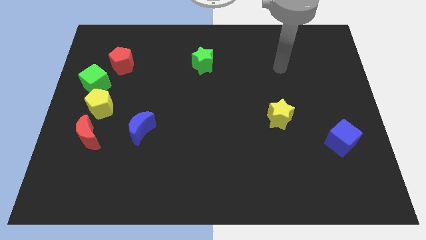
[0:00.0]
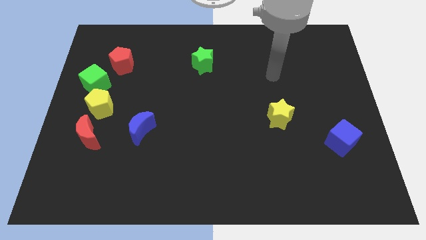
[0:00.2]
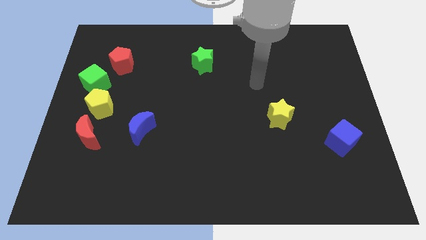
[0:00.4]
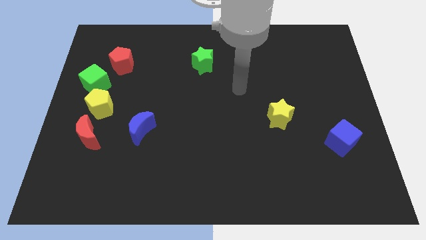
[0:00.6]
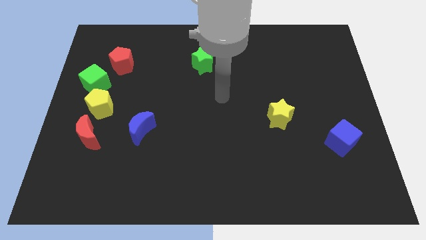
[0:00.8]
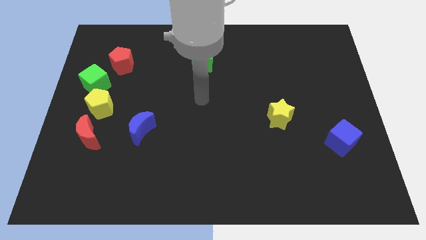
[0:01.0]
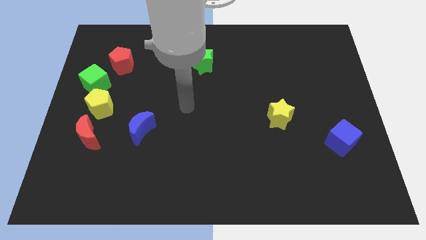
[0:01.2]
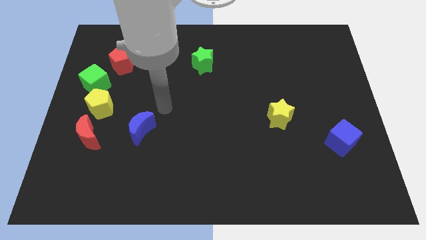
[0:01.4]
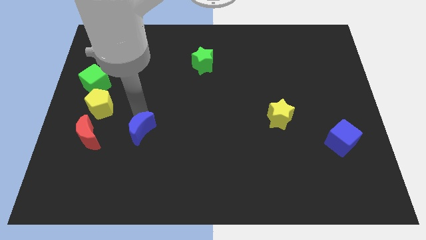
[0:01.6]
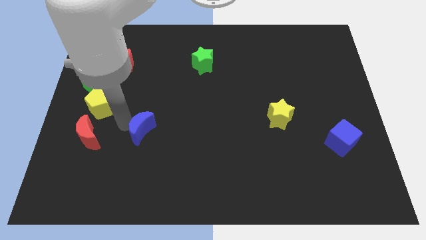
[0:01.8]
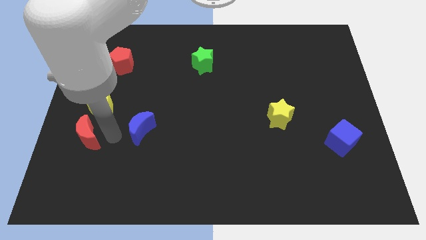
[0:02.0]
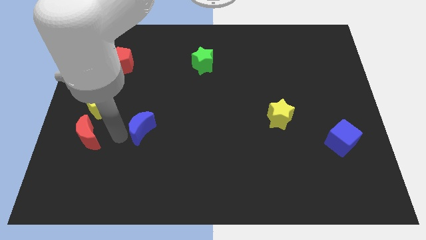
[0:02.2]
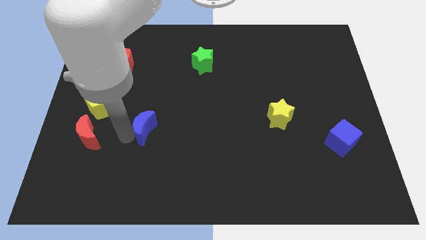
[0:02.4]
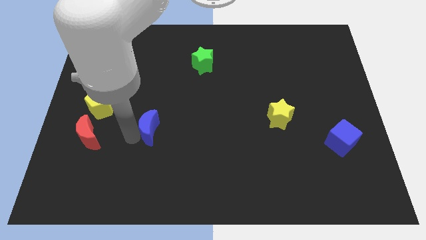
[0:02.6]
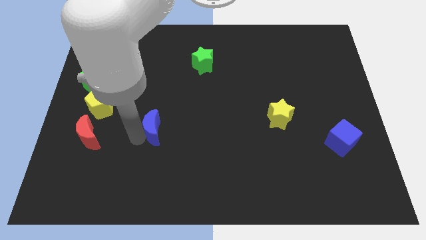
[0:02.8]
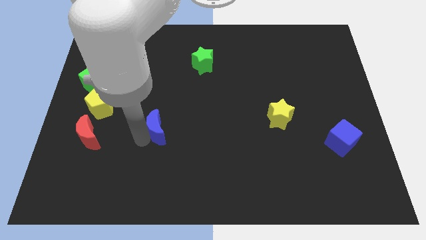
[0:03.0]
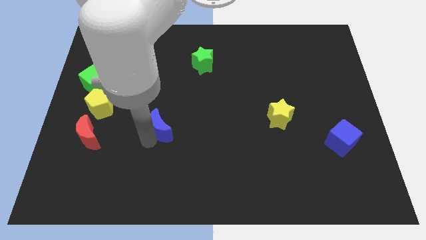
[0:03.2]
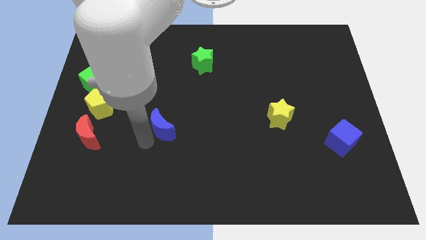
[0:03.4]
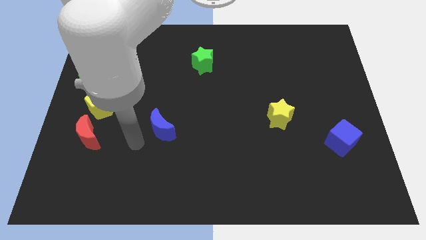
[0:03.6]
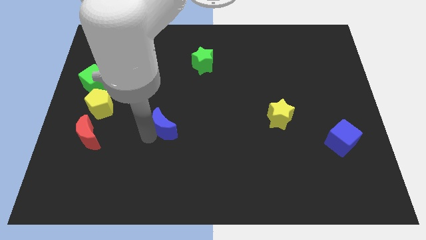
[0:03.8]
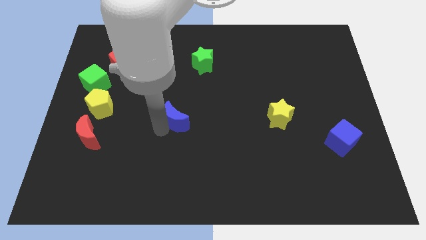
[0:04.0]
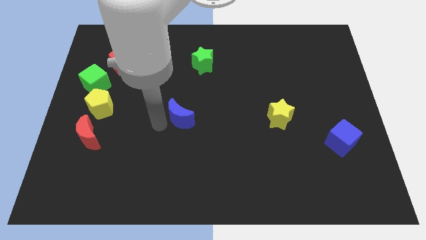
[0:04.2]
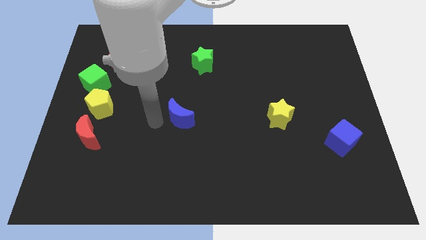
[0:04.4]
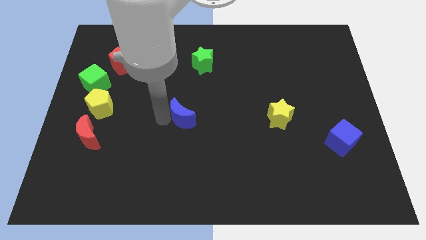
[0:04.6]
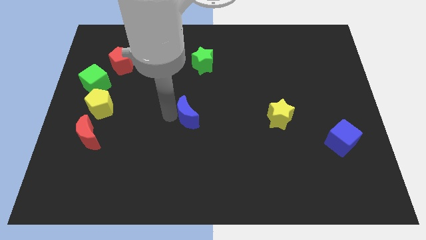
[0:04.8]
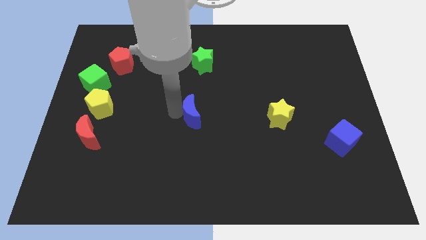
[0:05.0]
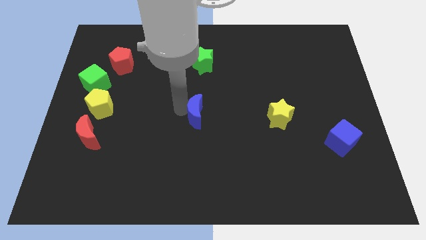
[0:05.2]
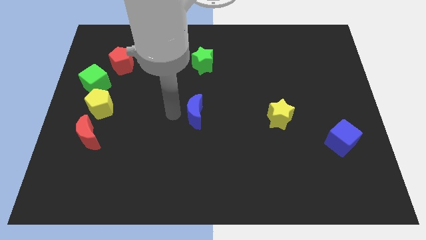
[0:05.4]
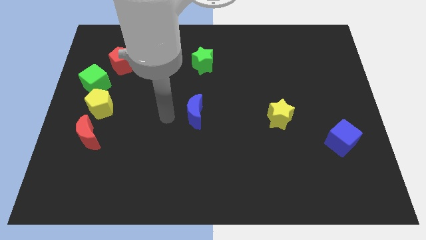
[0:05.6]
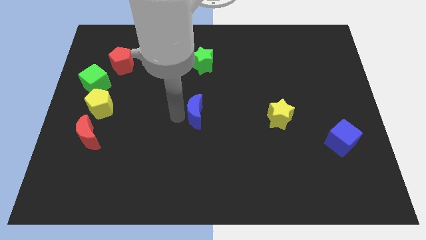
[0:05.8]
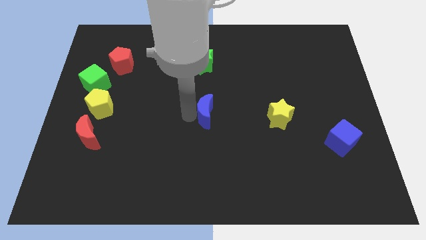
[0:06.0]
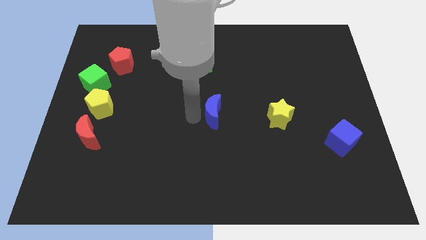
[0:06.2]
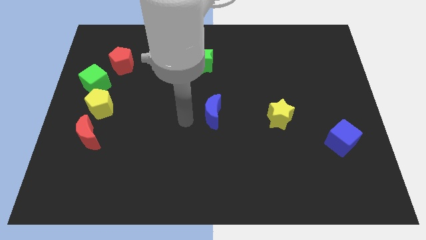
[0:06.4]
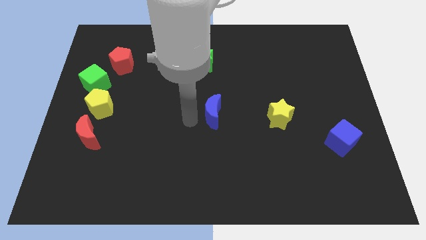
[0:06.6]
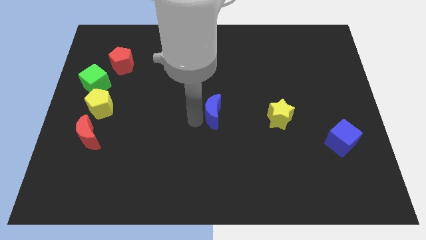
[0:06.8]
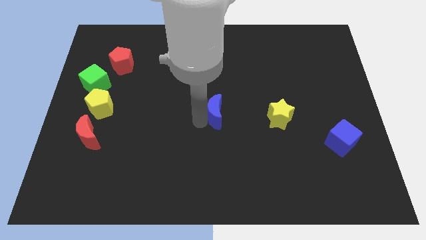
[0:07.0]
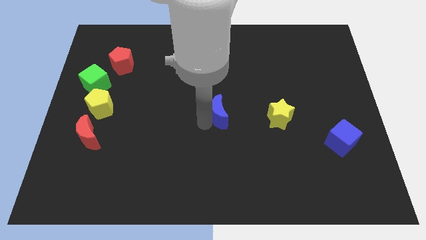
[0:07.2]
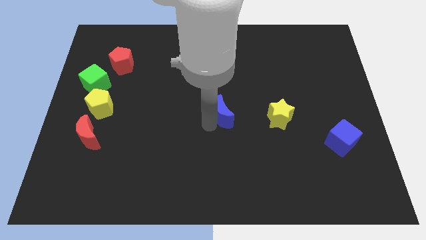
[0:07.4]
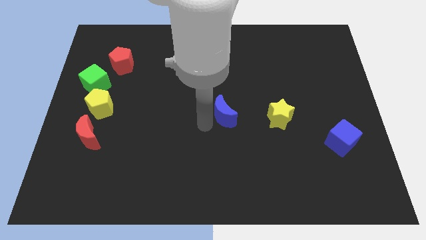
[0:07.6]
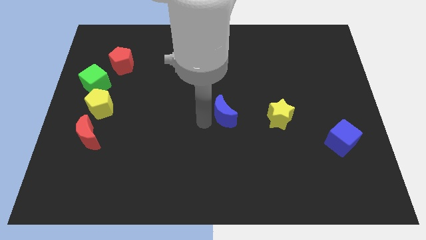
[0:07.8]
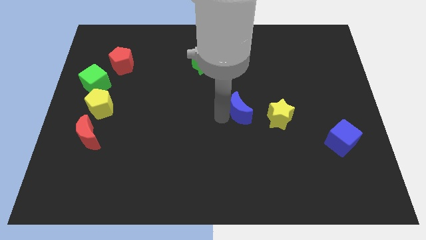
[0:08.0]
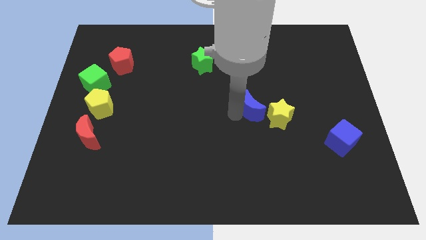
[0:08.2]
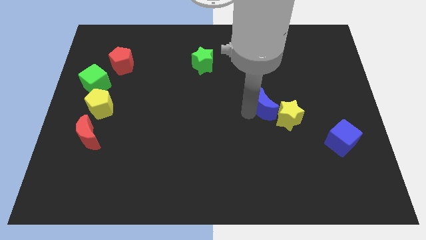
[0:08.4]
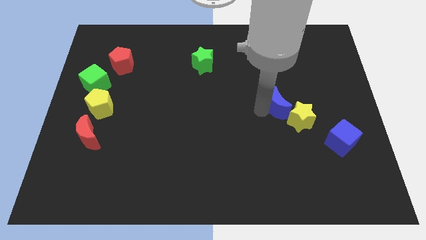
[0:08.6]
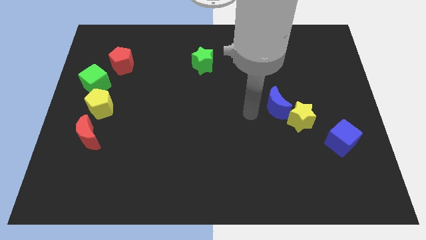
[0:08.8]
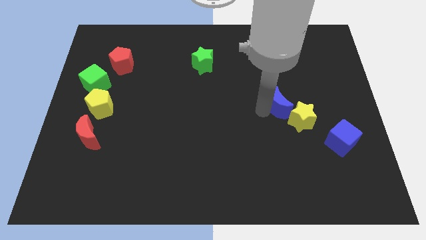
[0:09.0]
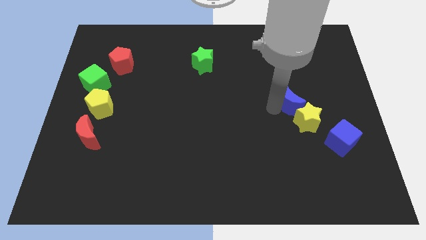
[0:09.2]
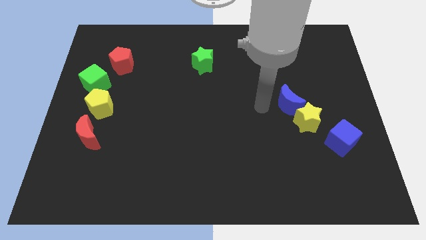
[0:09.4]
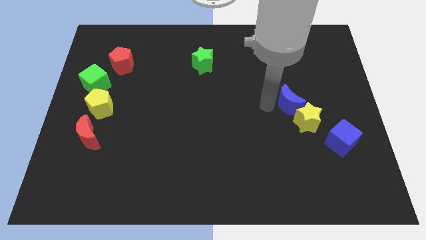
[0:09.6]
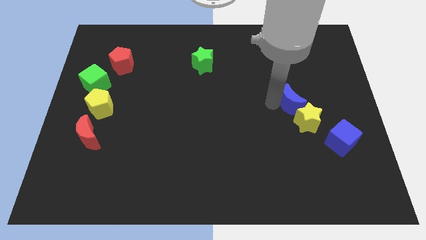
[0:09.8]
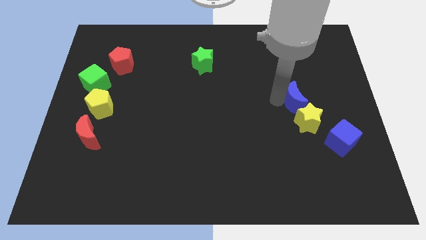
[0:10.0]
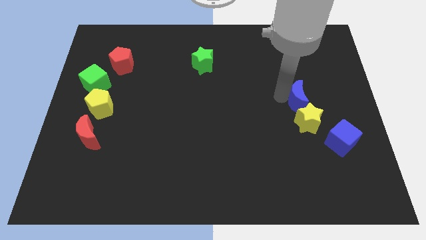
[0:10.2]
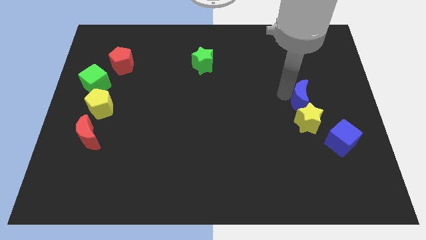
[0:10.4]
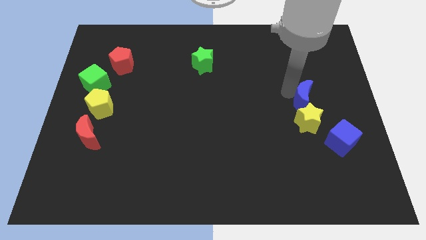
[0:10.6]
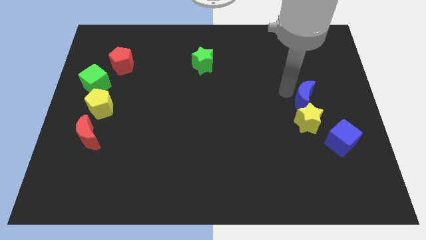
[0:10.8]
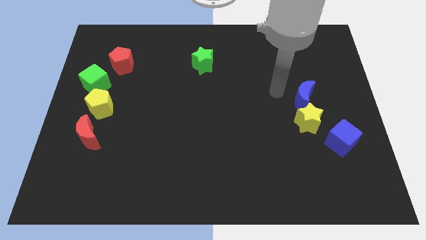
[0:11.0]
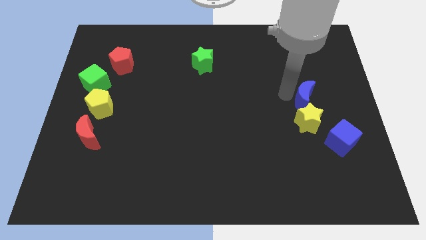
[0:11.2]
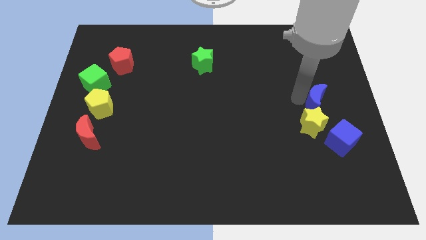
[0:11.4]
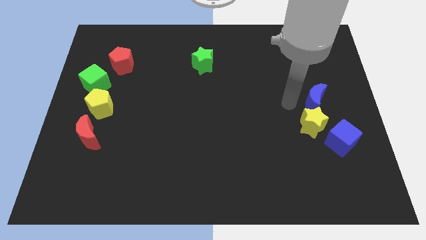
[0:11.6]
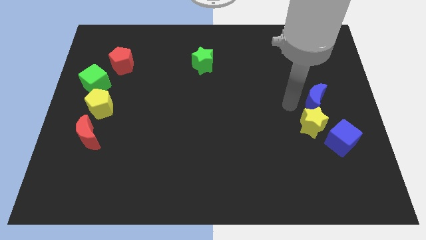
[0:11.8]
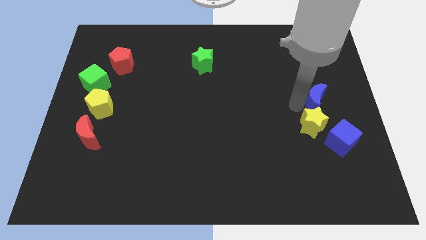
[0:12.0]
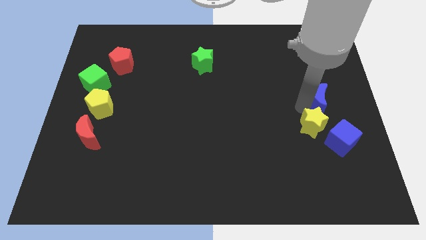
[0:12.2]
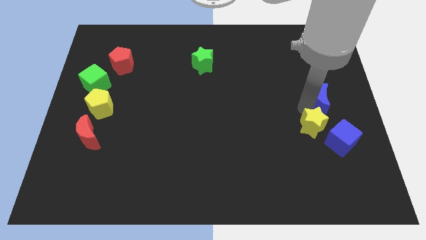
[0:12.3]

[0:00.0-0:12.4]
push the blue moon to the center right

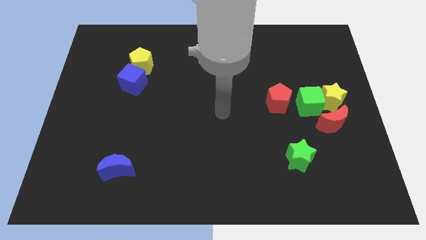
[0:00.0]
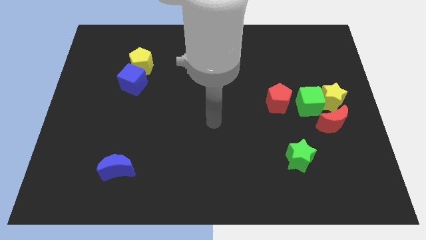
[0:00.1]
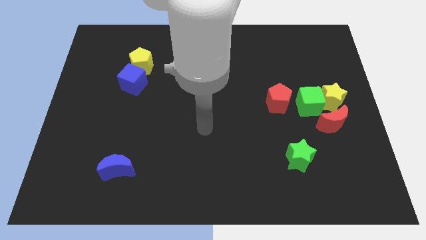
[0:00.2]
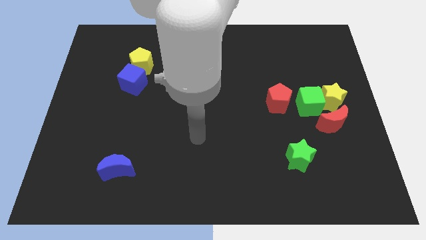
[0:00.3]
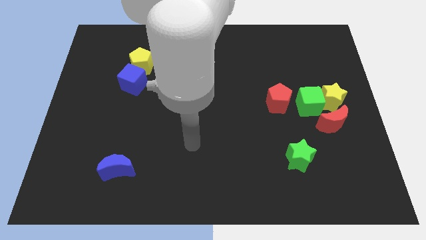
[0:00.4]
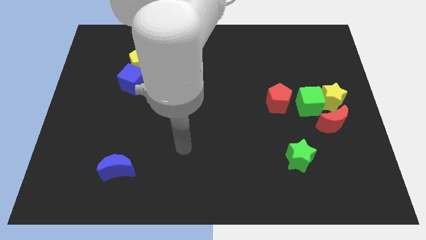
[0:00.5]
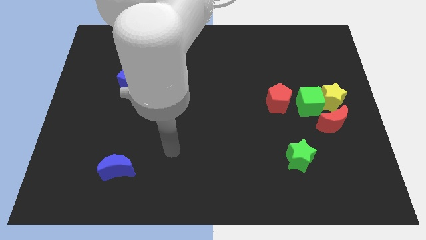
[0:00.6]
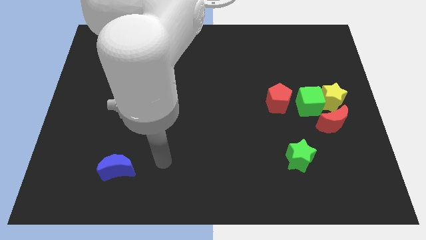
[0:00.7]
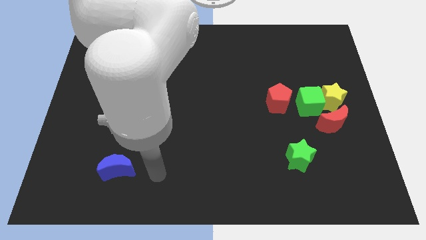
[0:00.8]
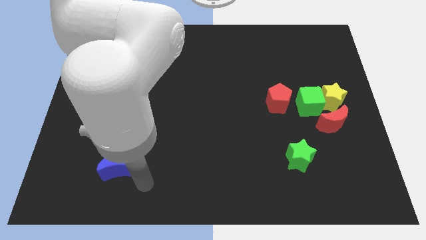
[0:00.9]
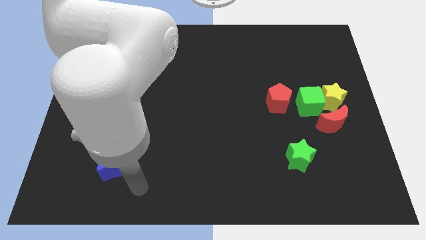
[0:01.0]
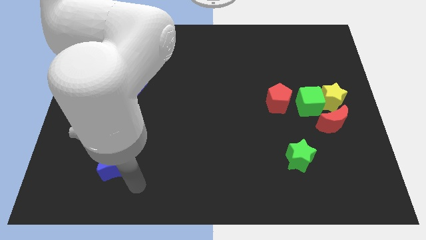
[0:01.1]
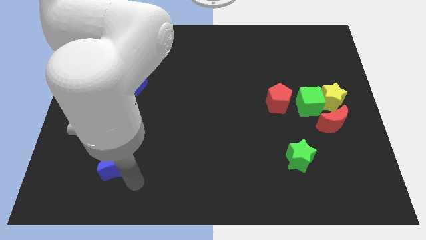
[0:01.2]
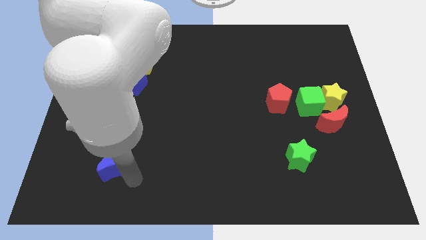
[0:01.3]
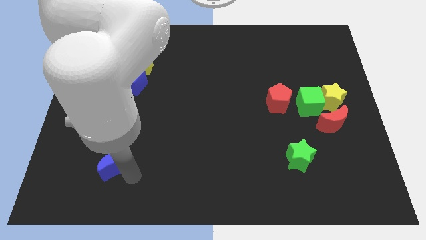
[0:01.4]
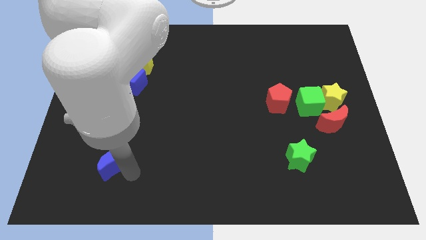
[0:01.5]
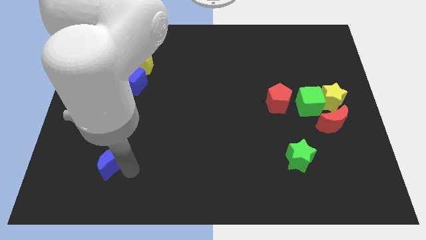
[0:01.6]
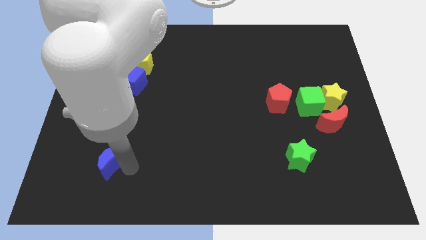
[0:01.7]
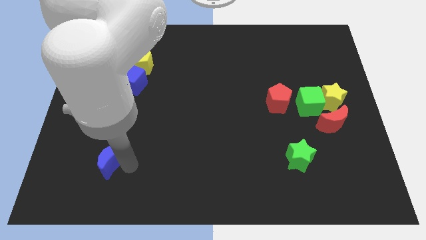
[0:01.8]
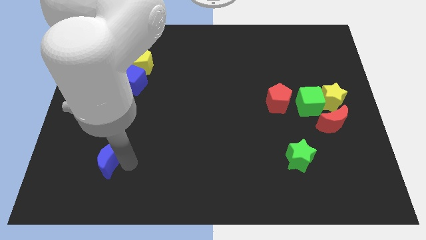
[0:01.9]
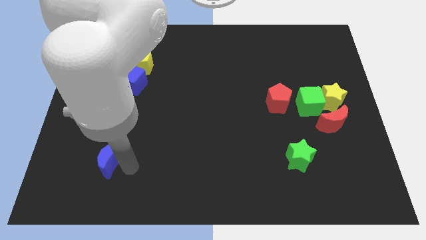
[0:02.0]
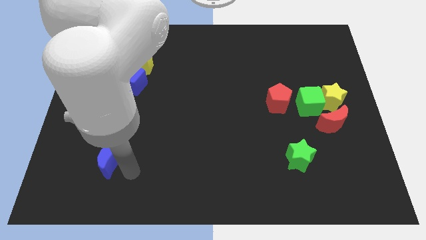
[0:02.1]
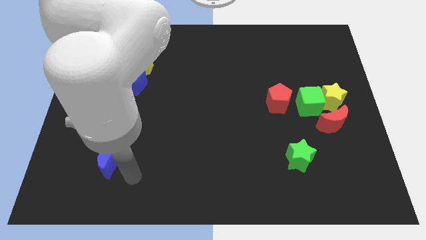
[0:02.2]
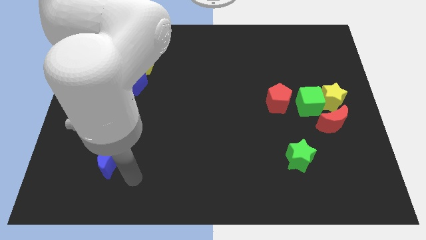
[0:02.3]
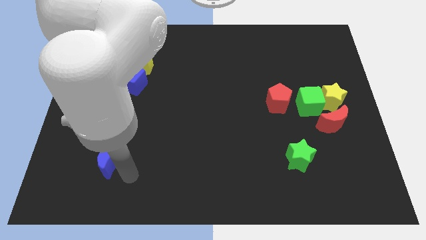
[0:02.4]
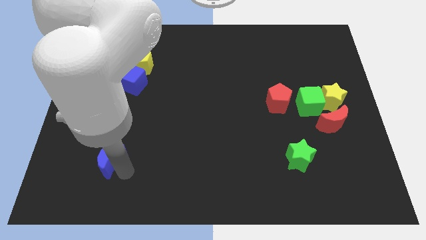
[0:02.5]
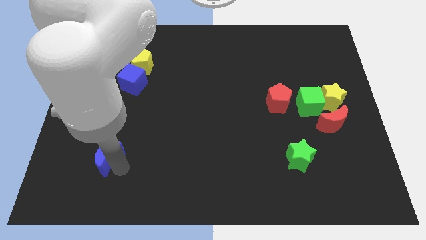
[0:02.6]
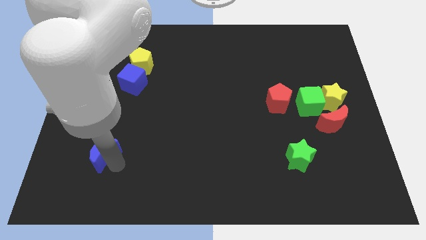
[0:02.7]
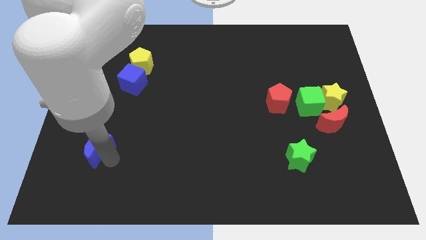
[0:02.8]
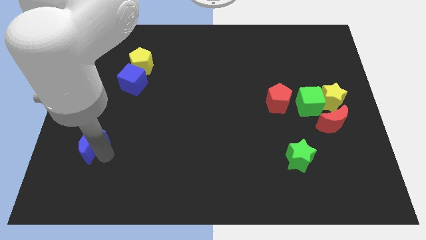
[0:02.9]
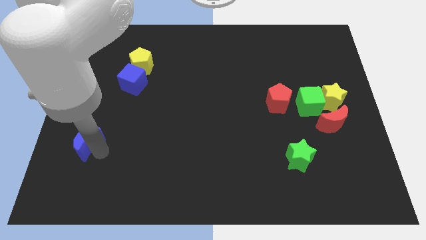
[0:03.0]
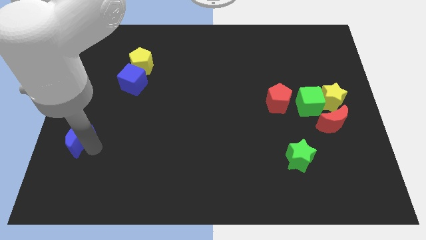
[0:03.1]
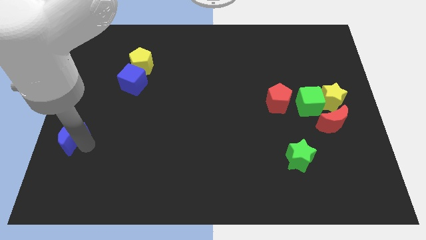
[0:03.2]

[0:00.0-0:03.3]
put the blue moon to the left side
